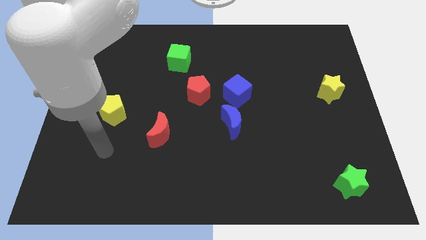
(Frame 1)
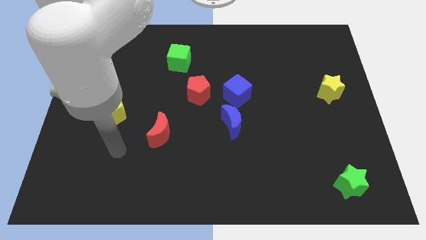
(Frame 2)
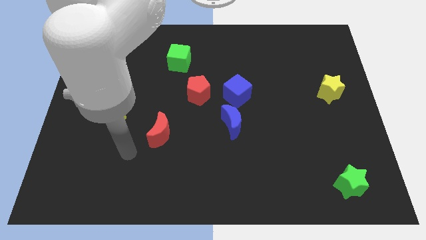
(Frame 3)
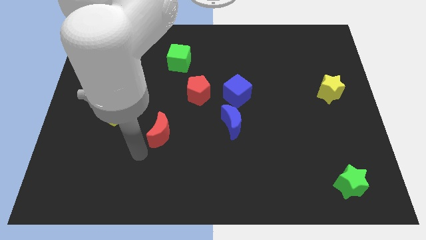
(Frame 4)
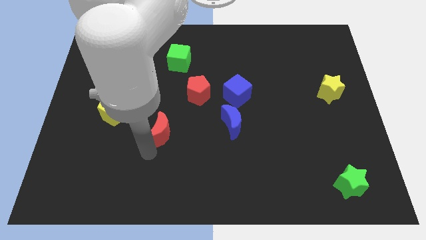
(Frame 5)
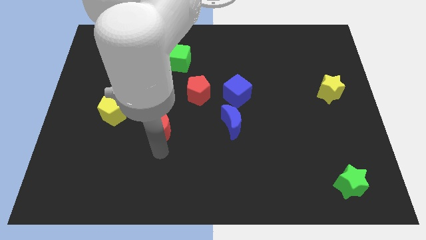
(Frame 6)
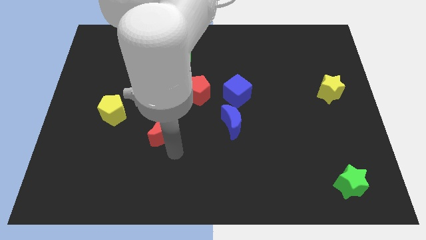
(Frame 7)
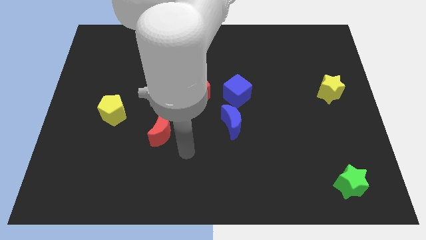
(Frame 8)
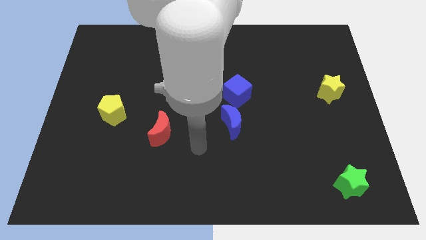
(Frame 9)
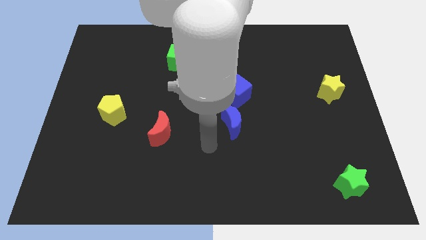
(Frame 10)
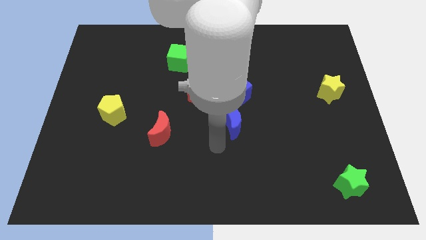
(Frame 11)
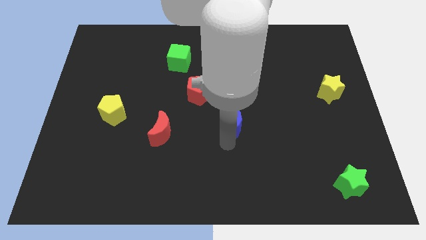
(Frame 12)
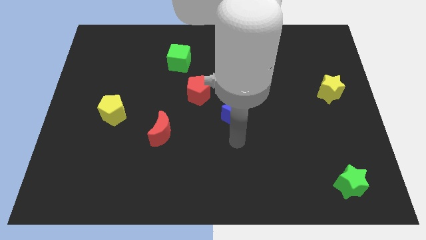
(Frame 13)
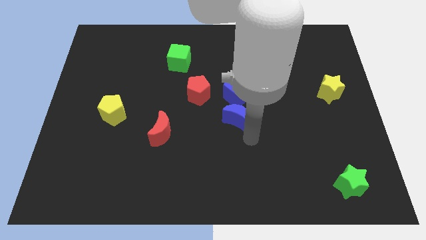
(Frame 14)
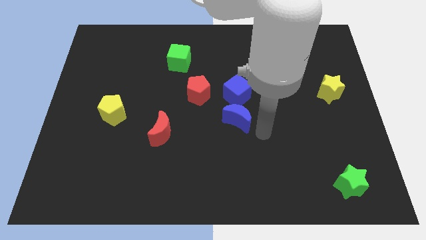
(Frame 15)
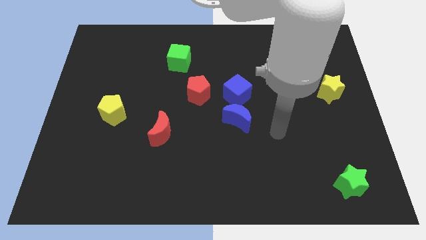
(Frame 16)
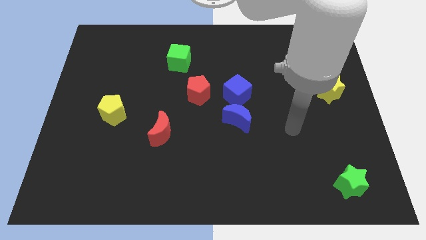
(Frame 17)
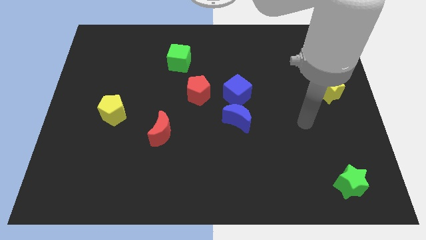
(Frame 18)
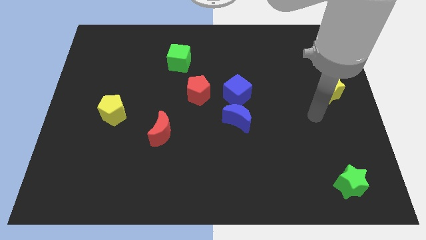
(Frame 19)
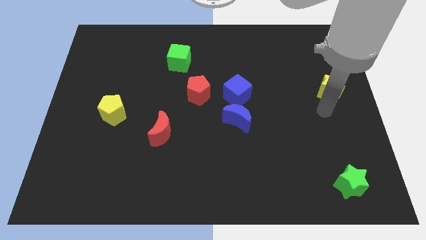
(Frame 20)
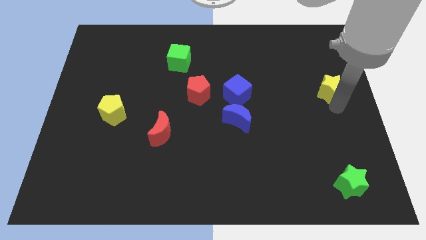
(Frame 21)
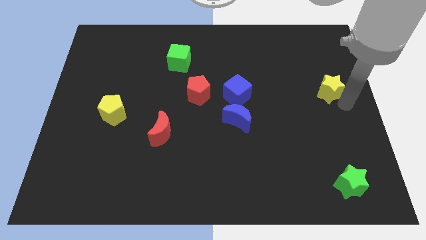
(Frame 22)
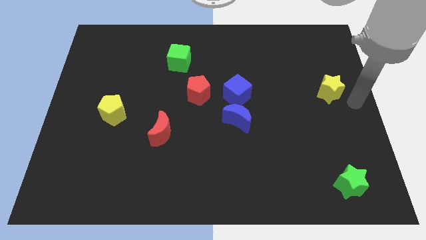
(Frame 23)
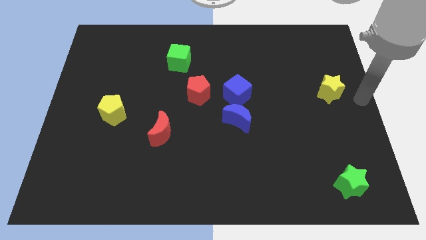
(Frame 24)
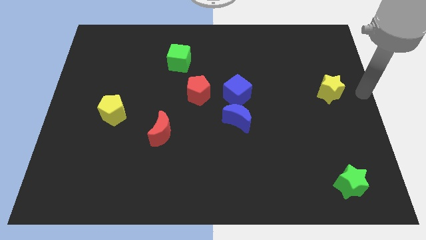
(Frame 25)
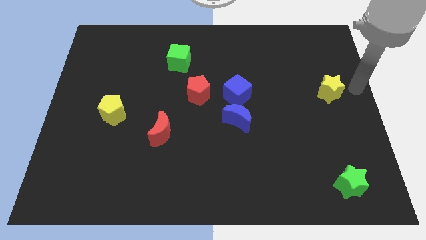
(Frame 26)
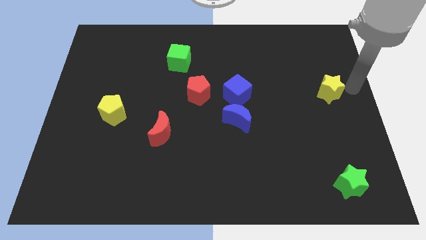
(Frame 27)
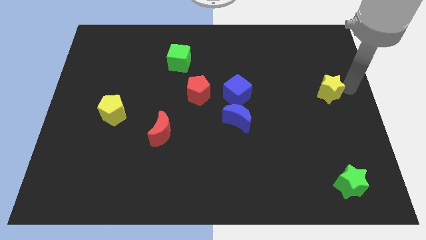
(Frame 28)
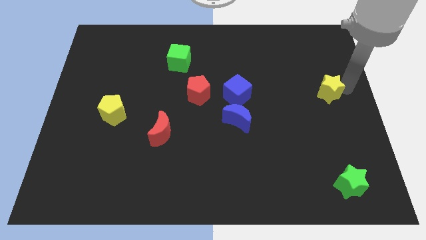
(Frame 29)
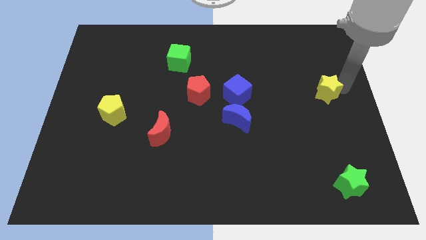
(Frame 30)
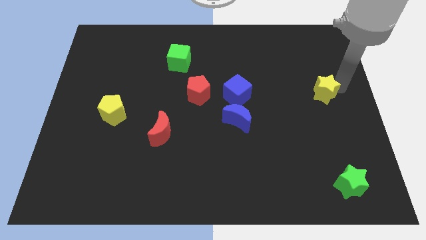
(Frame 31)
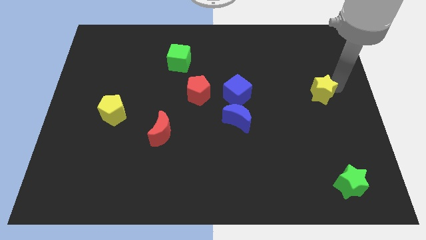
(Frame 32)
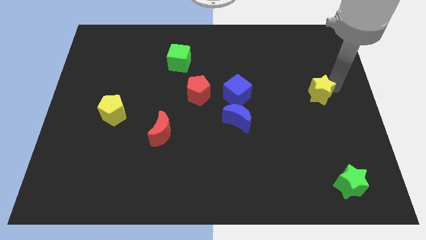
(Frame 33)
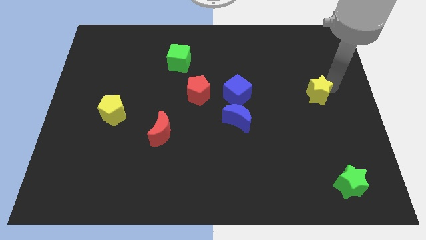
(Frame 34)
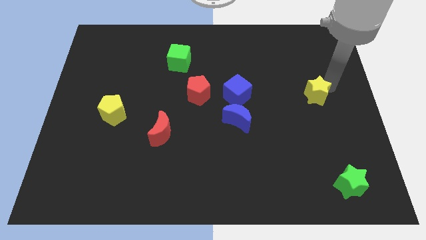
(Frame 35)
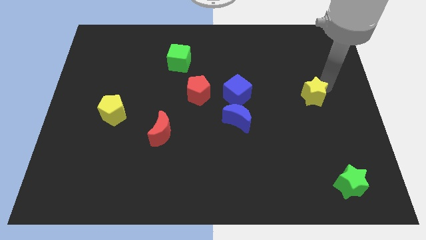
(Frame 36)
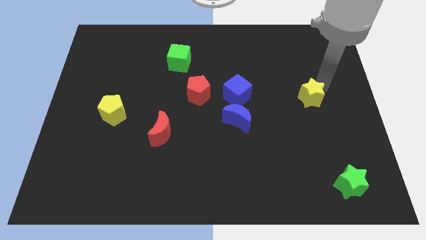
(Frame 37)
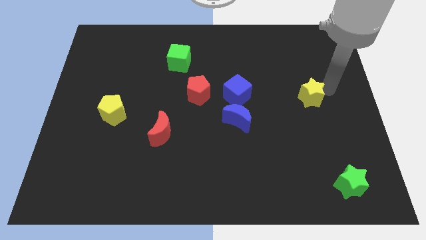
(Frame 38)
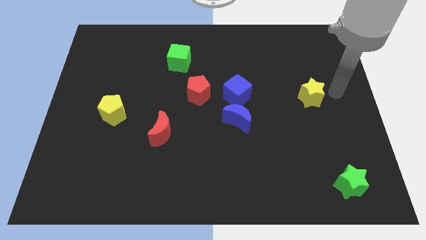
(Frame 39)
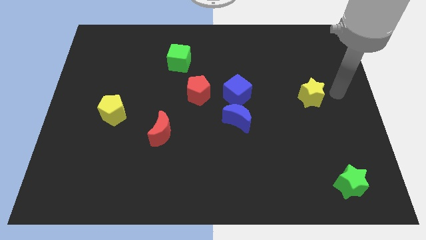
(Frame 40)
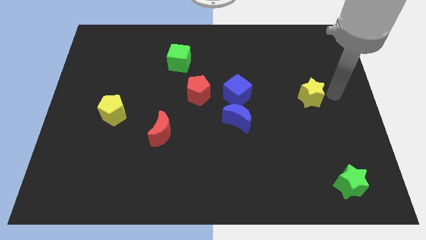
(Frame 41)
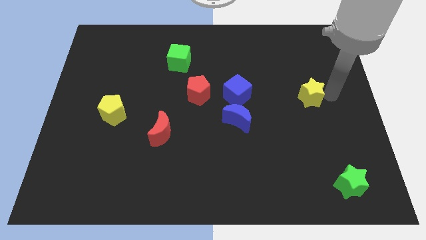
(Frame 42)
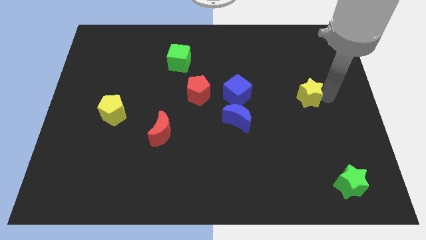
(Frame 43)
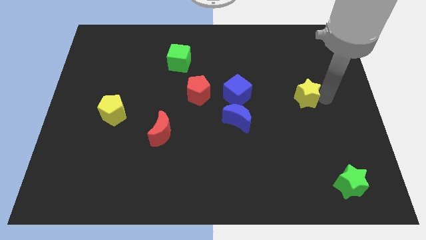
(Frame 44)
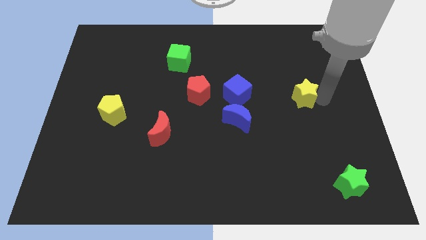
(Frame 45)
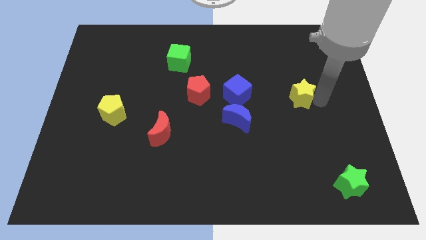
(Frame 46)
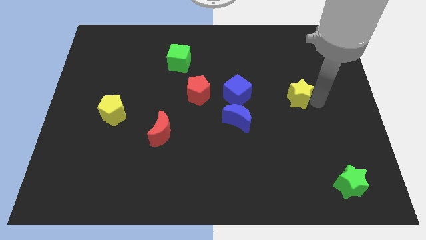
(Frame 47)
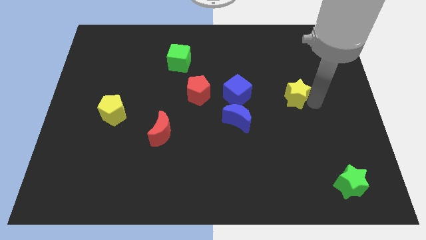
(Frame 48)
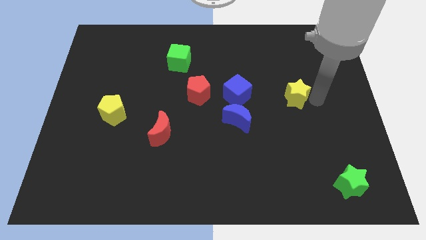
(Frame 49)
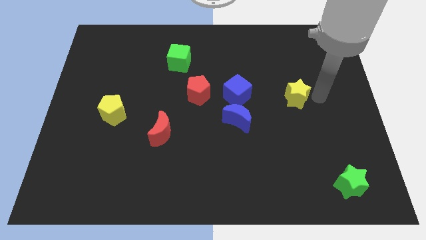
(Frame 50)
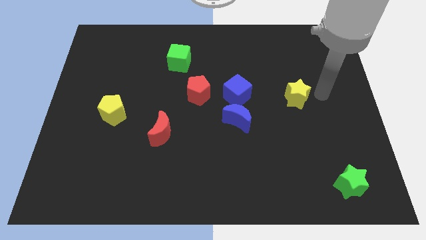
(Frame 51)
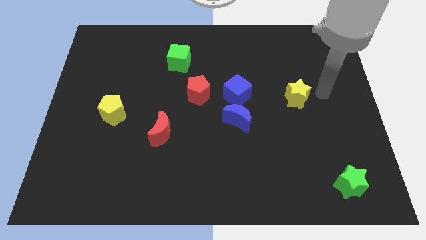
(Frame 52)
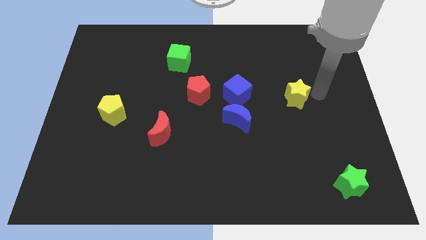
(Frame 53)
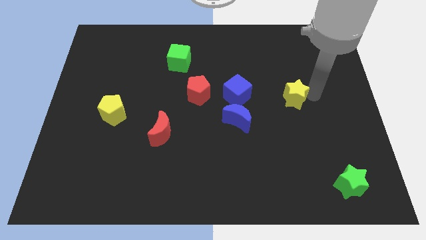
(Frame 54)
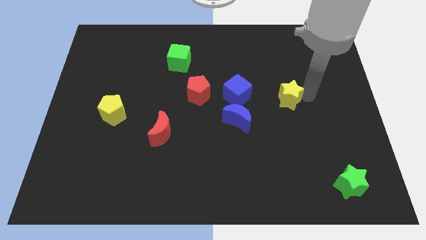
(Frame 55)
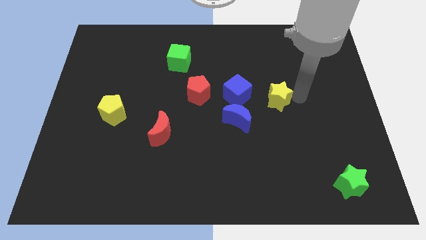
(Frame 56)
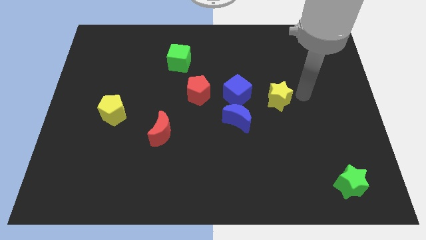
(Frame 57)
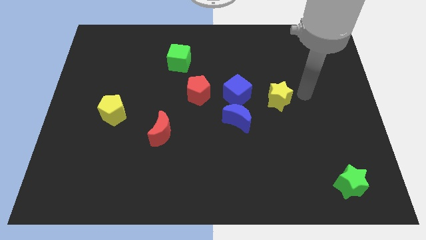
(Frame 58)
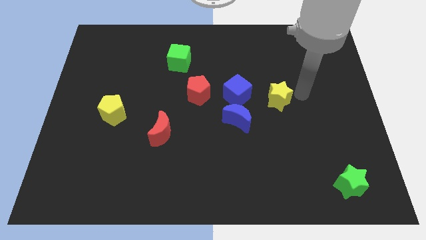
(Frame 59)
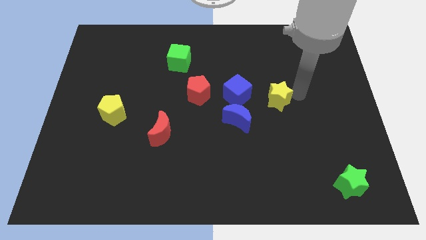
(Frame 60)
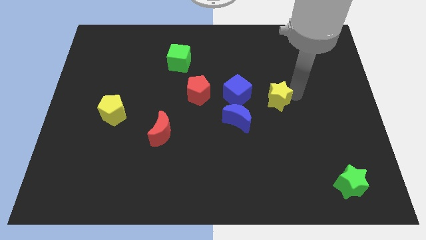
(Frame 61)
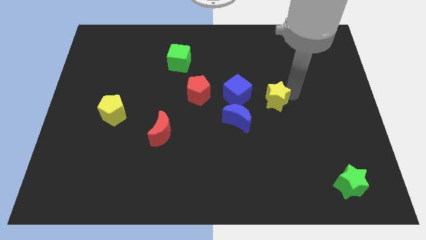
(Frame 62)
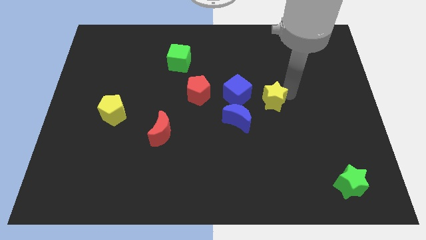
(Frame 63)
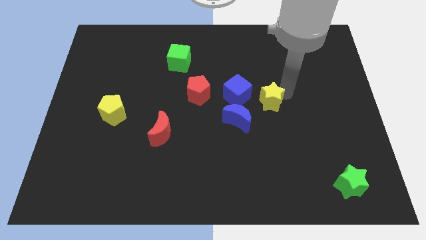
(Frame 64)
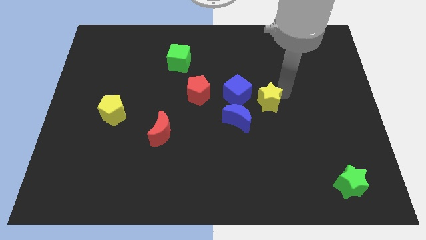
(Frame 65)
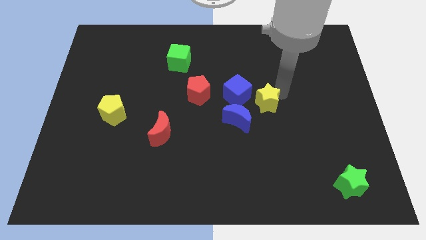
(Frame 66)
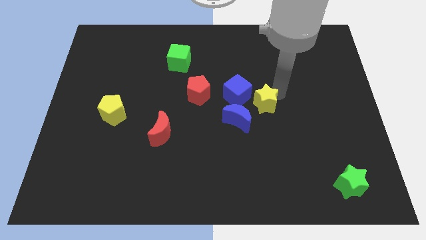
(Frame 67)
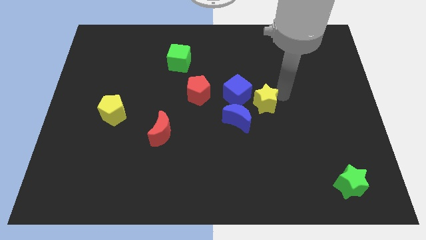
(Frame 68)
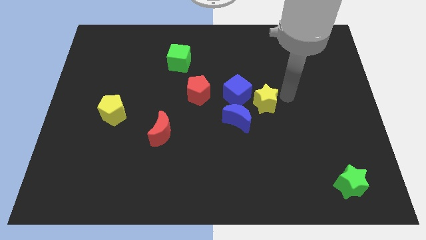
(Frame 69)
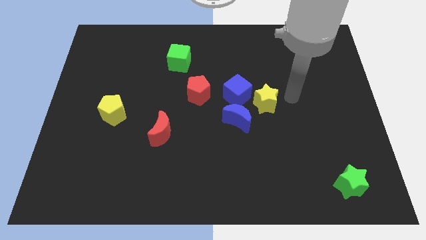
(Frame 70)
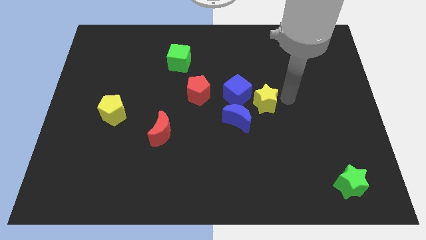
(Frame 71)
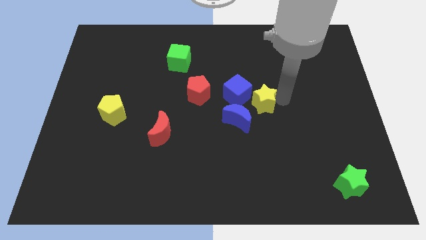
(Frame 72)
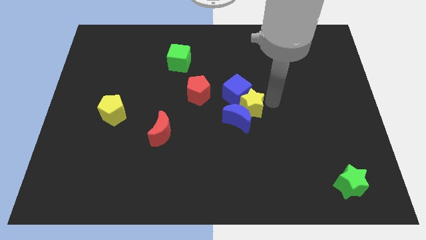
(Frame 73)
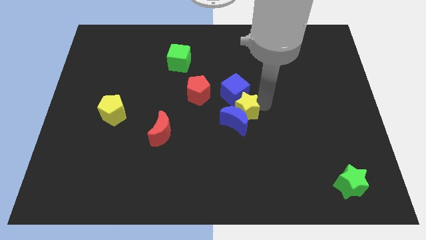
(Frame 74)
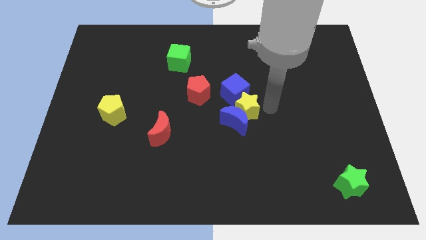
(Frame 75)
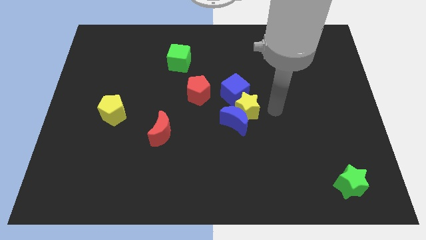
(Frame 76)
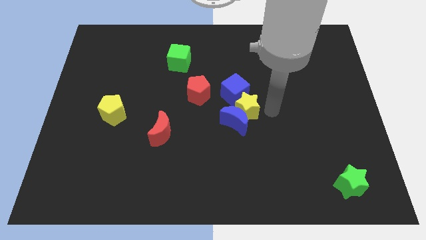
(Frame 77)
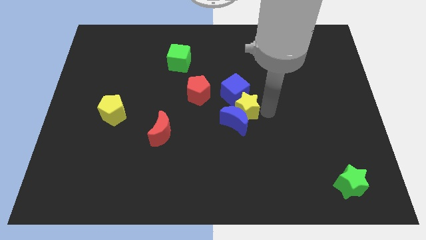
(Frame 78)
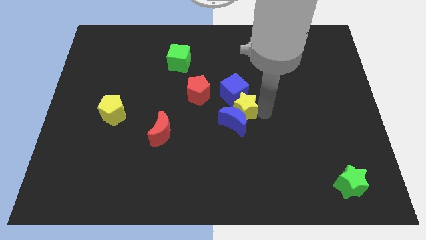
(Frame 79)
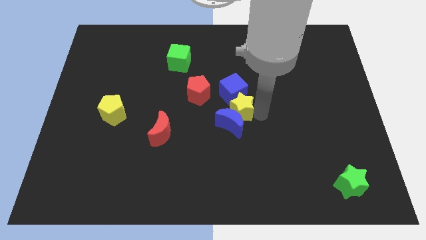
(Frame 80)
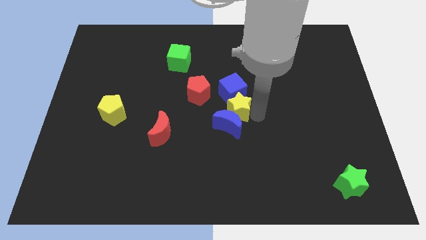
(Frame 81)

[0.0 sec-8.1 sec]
put the yellow star to the bottom left of the blue cube
